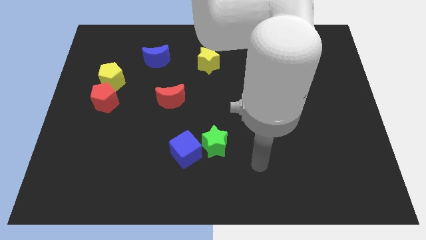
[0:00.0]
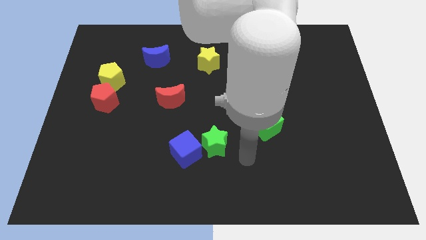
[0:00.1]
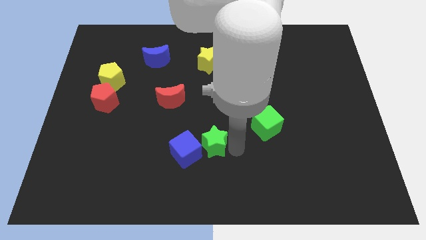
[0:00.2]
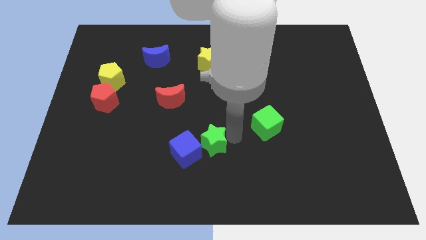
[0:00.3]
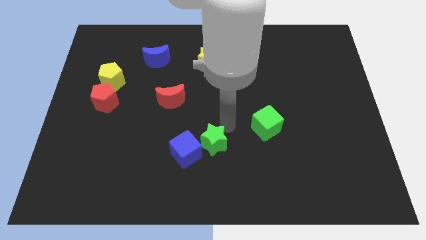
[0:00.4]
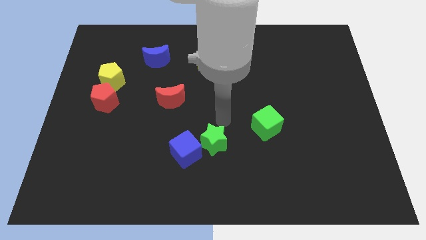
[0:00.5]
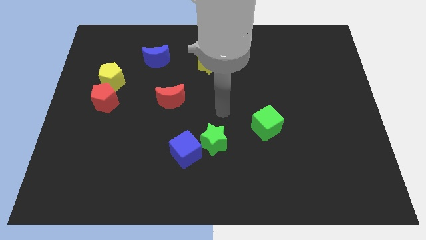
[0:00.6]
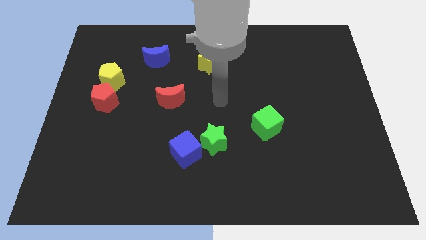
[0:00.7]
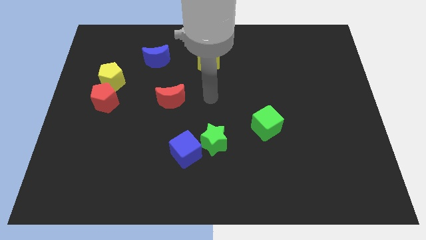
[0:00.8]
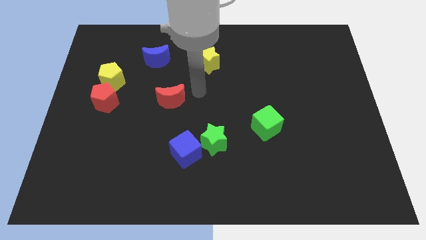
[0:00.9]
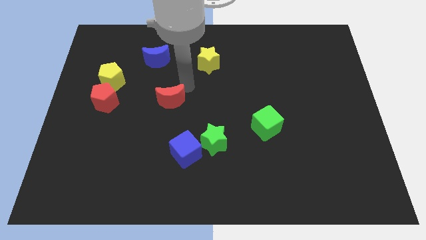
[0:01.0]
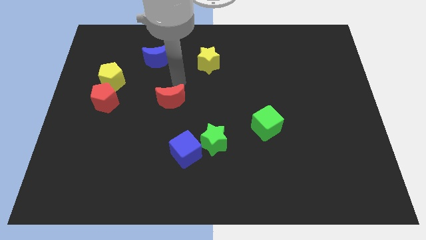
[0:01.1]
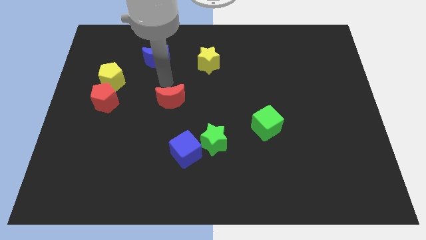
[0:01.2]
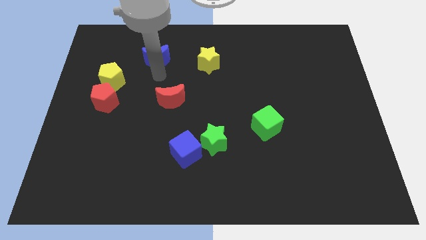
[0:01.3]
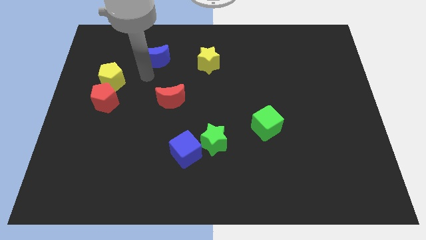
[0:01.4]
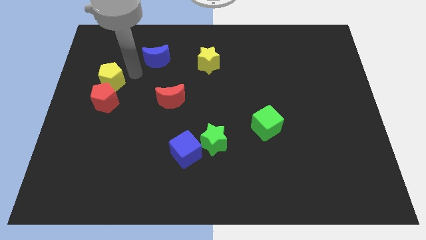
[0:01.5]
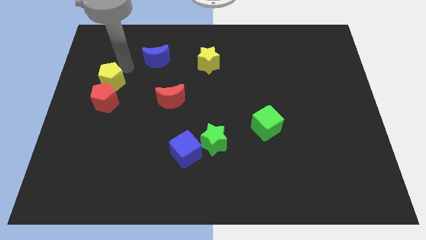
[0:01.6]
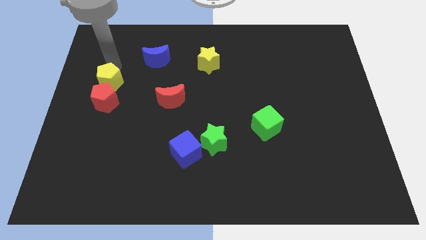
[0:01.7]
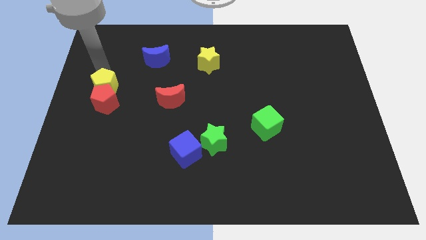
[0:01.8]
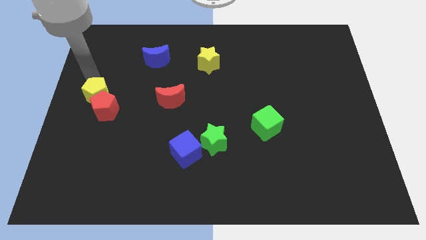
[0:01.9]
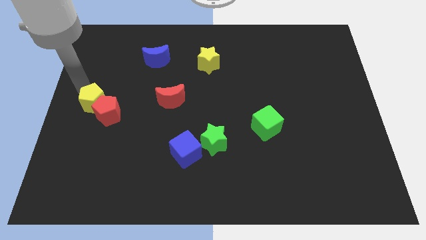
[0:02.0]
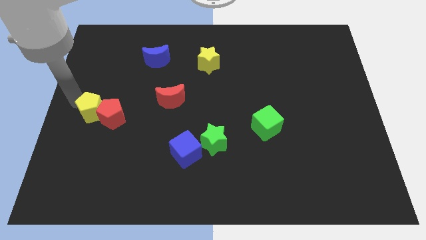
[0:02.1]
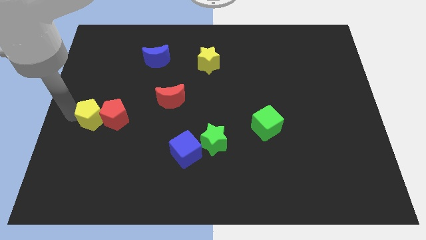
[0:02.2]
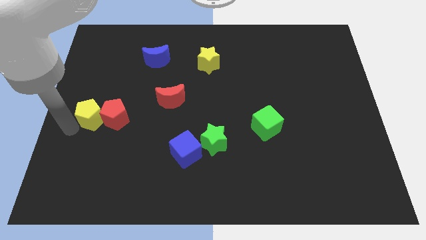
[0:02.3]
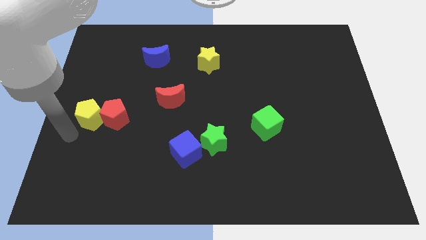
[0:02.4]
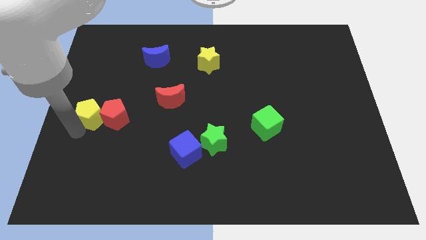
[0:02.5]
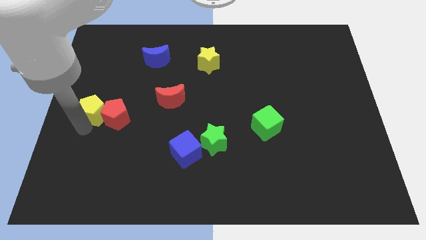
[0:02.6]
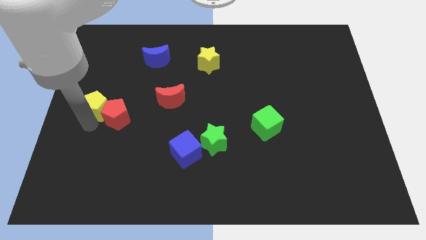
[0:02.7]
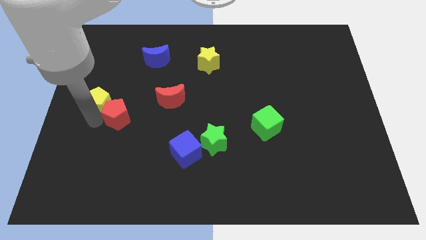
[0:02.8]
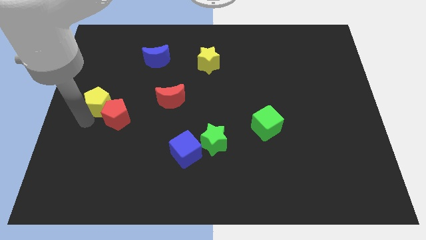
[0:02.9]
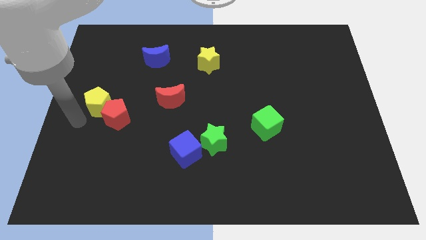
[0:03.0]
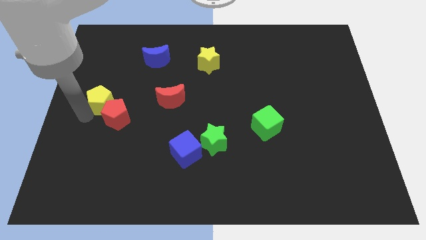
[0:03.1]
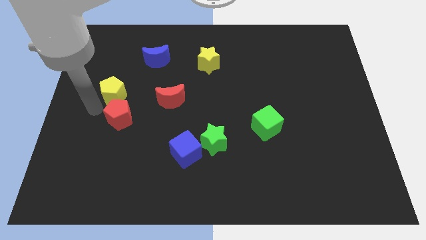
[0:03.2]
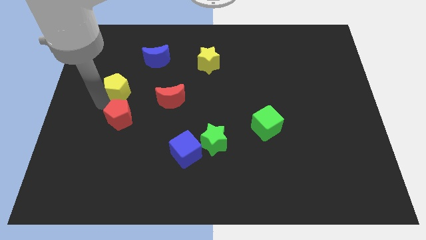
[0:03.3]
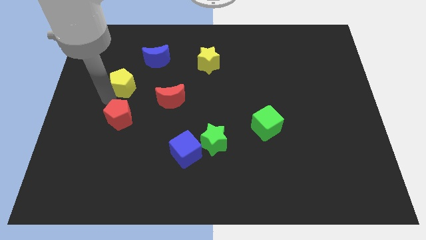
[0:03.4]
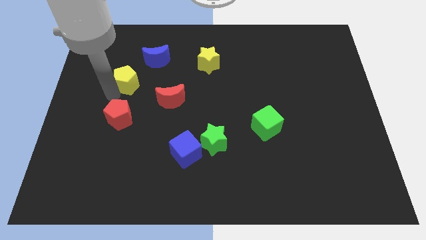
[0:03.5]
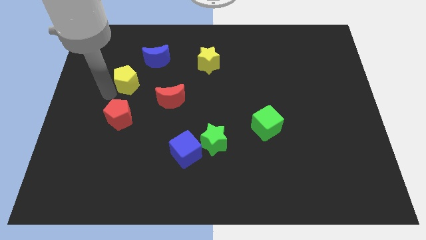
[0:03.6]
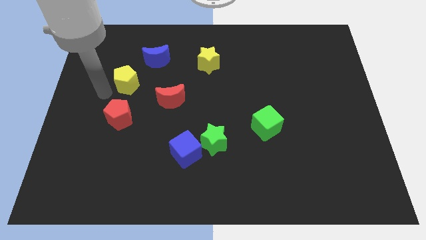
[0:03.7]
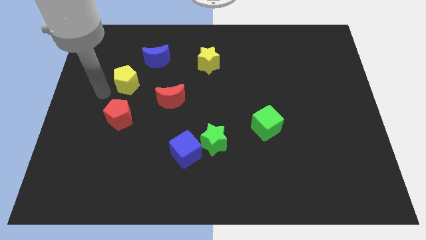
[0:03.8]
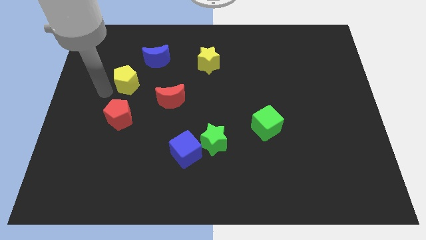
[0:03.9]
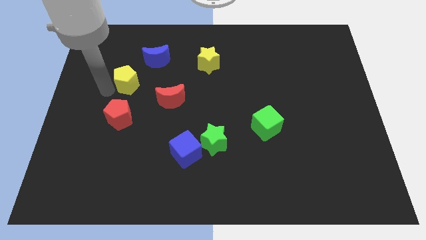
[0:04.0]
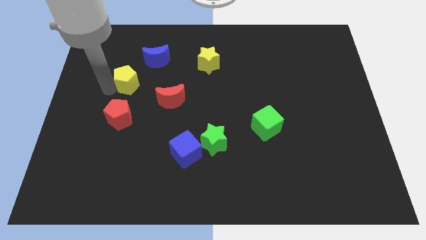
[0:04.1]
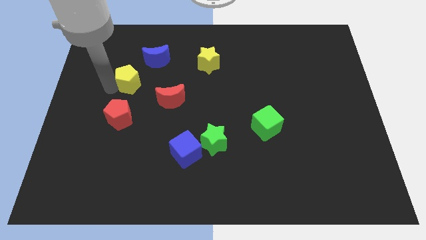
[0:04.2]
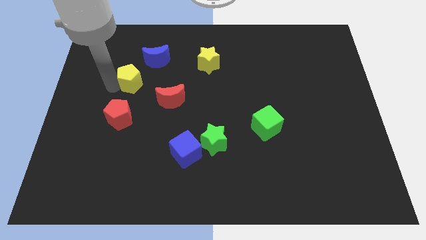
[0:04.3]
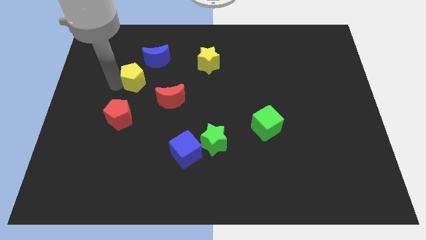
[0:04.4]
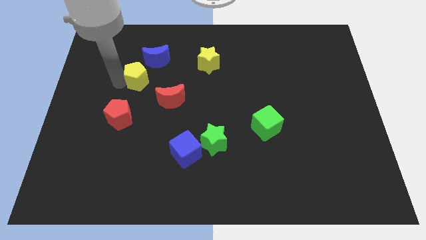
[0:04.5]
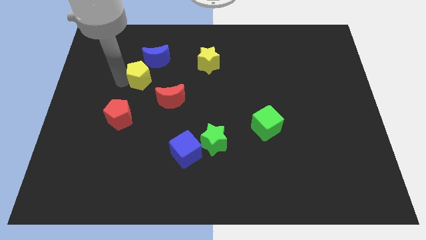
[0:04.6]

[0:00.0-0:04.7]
move the yellow pentagon somewhat right

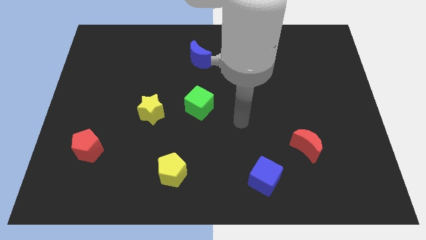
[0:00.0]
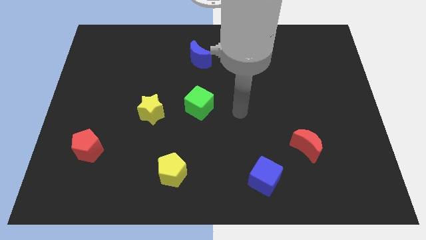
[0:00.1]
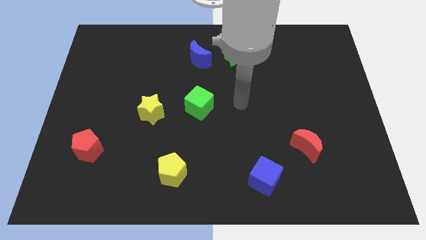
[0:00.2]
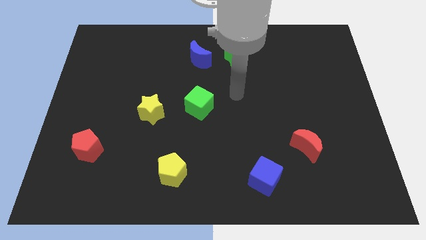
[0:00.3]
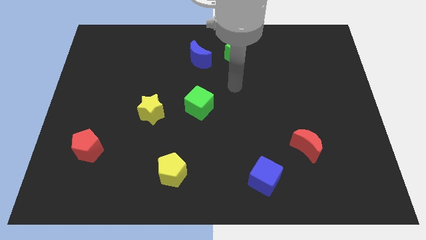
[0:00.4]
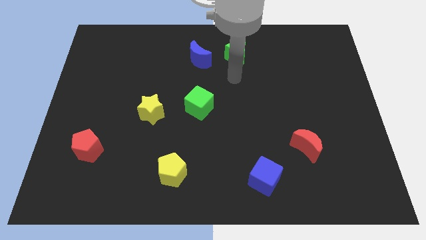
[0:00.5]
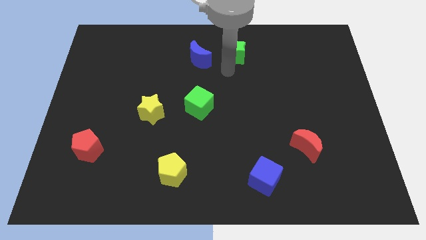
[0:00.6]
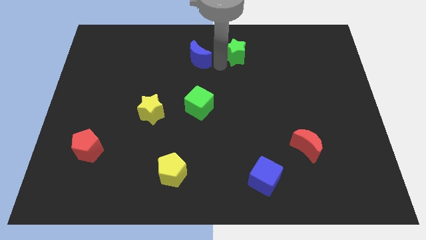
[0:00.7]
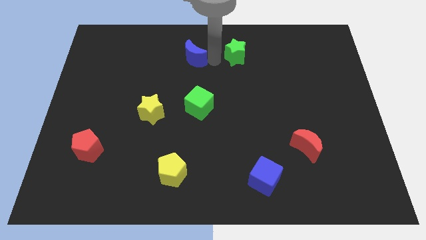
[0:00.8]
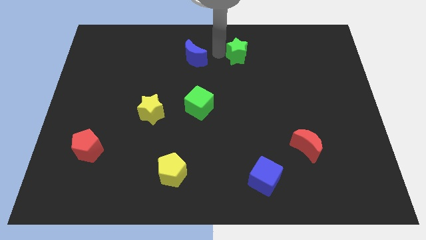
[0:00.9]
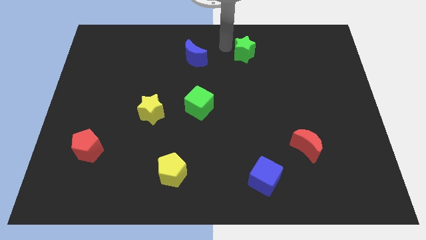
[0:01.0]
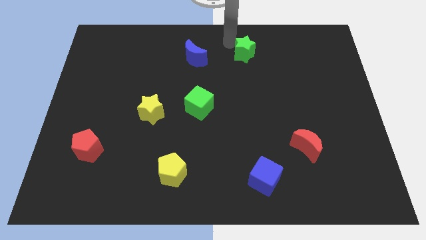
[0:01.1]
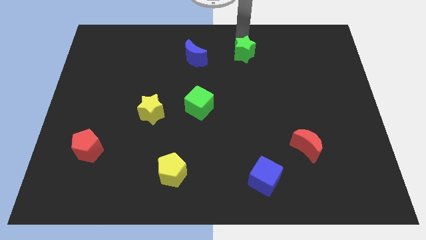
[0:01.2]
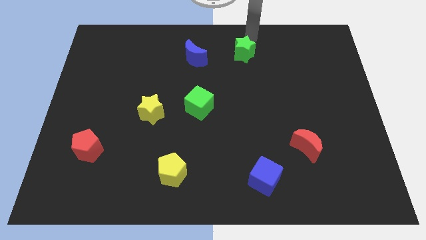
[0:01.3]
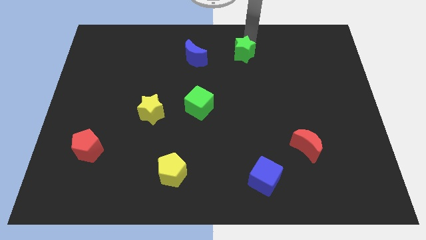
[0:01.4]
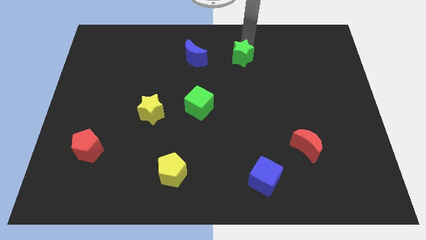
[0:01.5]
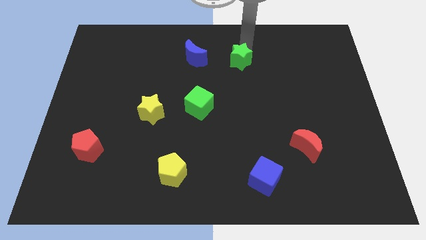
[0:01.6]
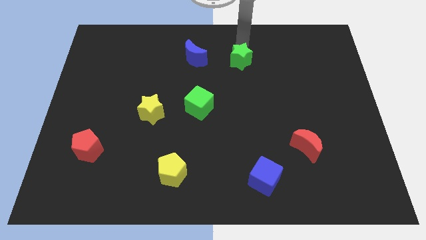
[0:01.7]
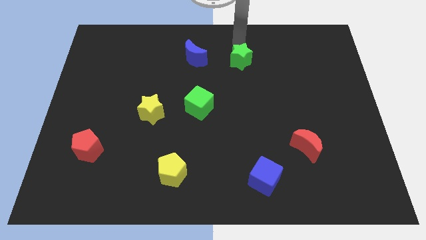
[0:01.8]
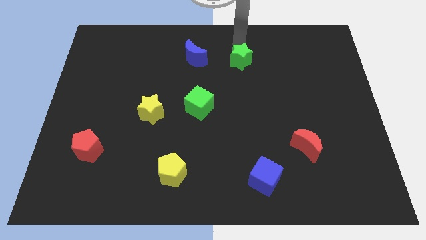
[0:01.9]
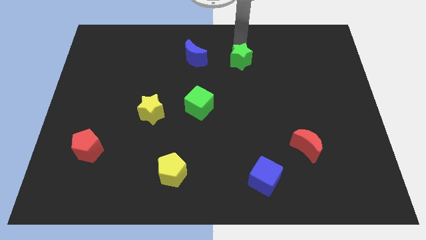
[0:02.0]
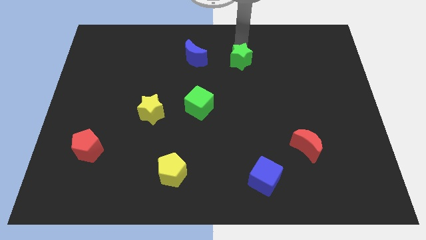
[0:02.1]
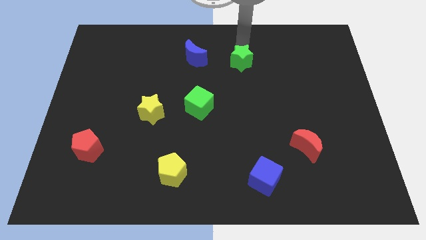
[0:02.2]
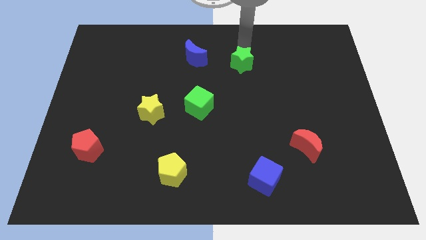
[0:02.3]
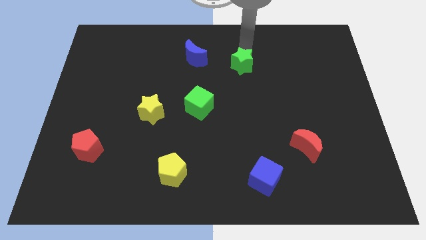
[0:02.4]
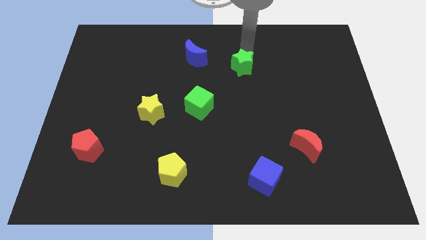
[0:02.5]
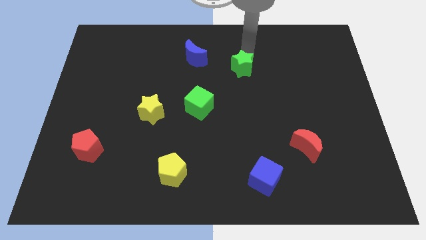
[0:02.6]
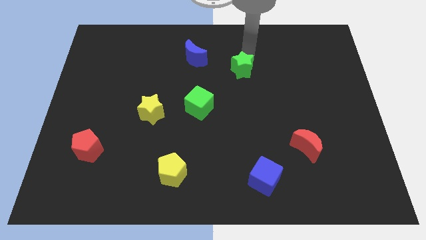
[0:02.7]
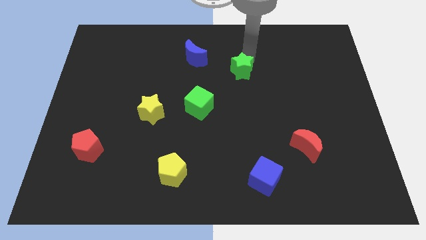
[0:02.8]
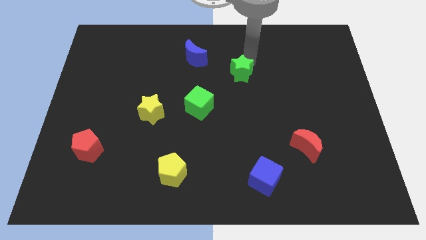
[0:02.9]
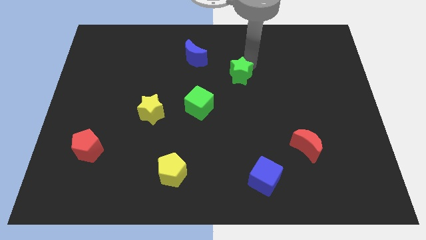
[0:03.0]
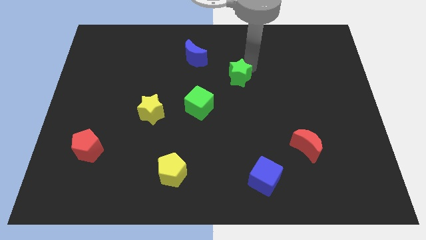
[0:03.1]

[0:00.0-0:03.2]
push the green star down a little
